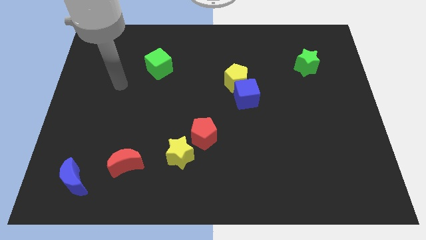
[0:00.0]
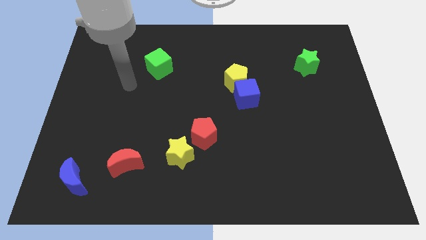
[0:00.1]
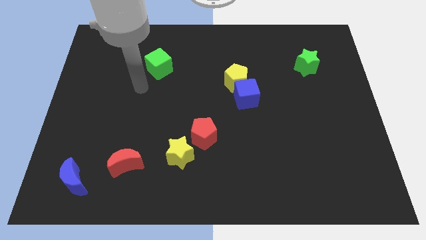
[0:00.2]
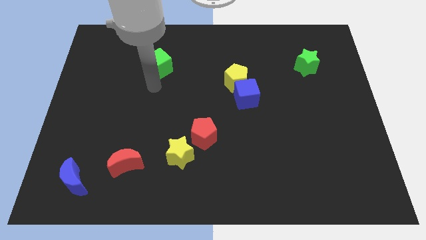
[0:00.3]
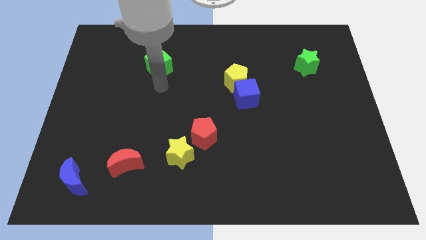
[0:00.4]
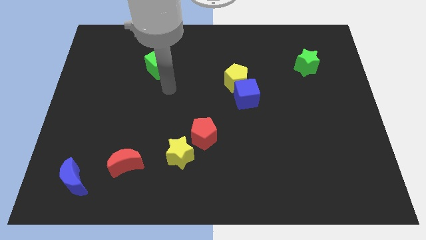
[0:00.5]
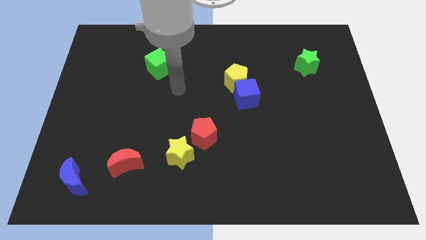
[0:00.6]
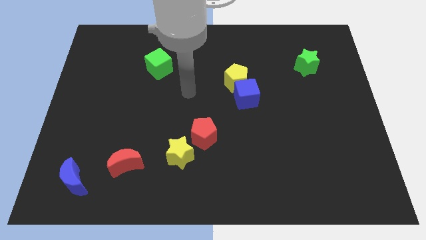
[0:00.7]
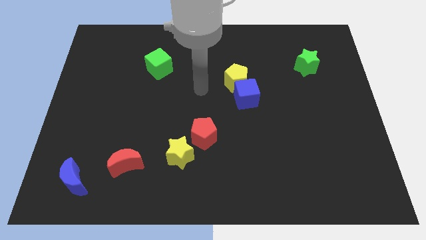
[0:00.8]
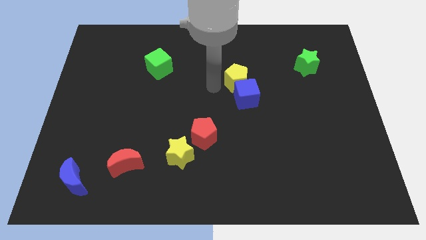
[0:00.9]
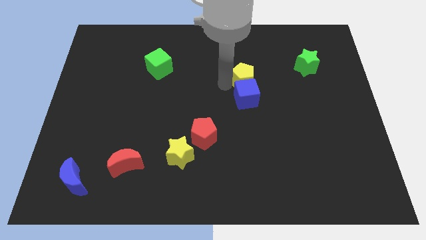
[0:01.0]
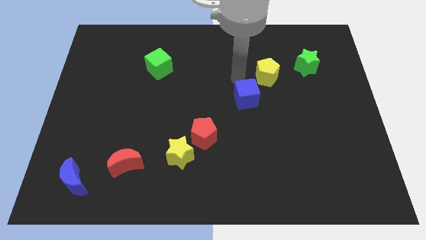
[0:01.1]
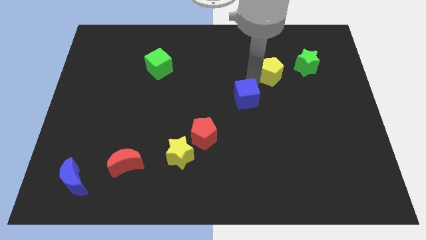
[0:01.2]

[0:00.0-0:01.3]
separate the blue cube from the yellow pentagon

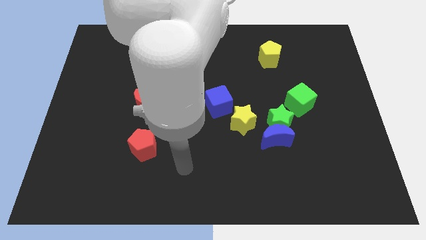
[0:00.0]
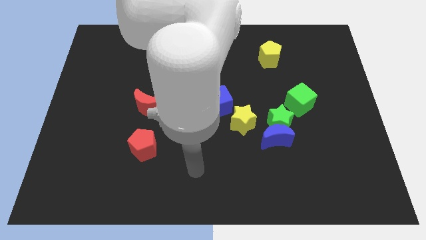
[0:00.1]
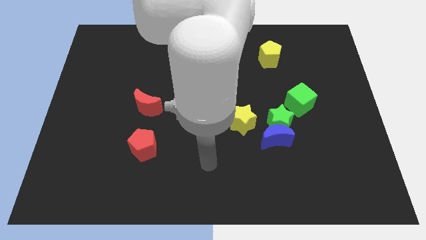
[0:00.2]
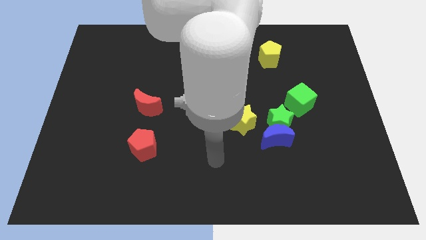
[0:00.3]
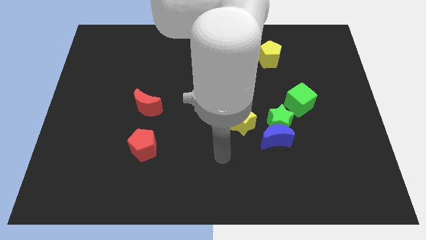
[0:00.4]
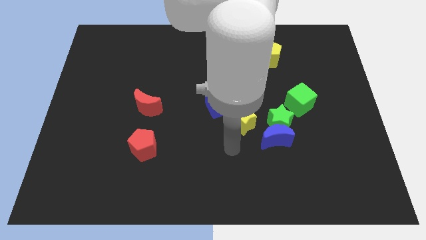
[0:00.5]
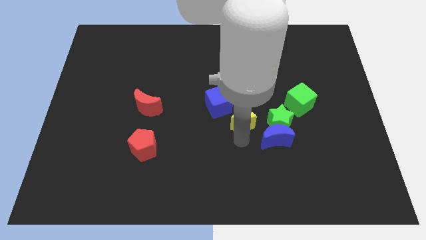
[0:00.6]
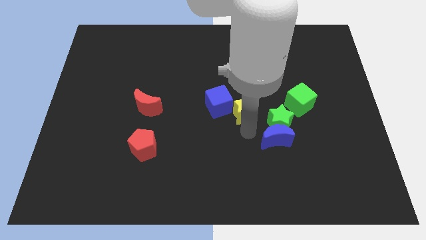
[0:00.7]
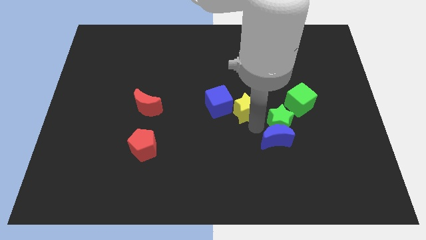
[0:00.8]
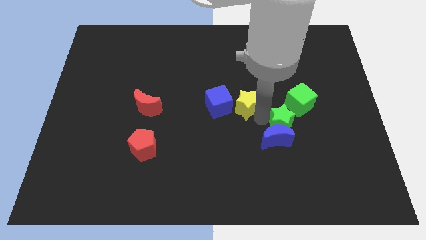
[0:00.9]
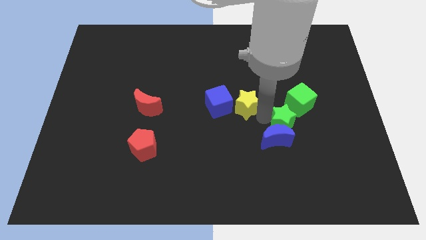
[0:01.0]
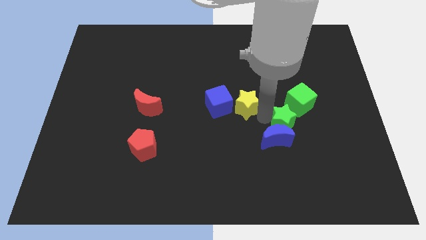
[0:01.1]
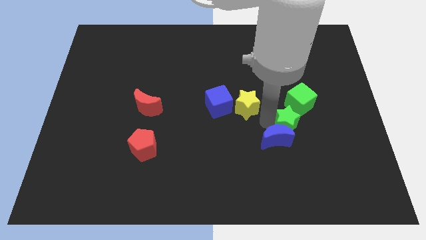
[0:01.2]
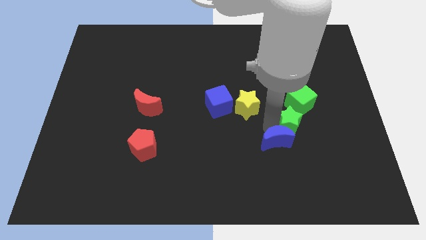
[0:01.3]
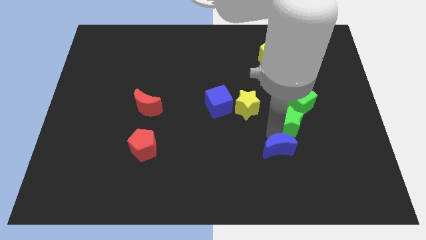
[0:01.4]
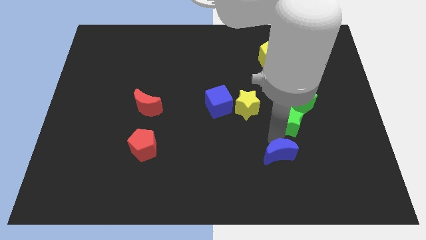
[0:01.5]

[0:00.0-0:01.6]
pull the blue moon apart from the green star and yellow star

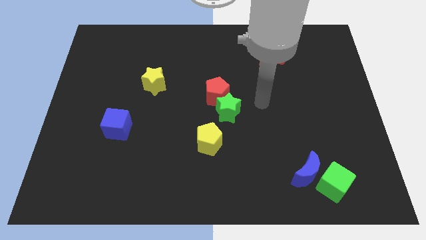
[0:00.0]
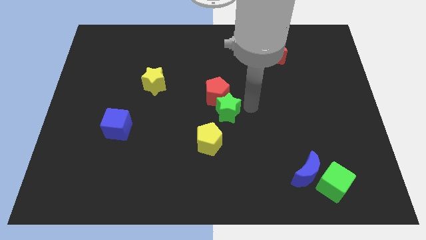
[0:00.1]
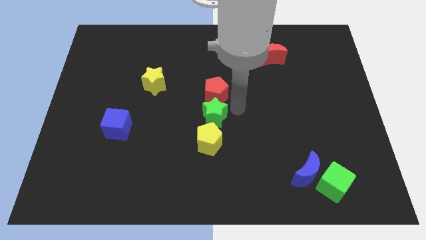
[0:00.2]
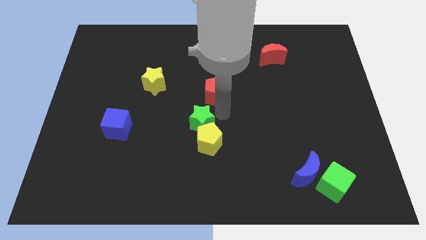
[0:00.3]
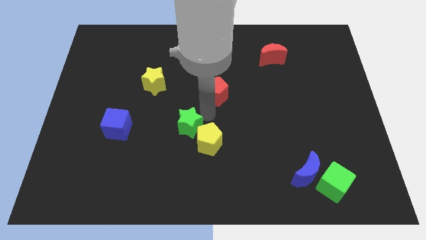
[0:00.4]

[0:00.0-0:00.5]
separate the red pentagon from the green star

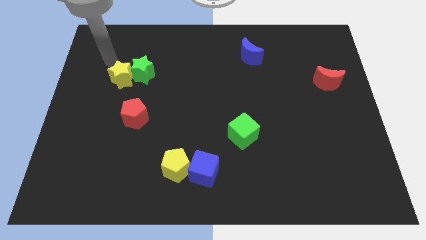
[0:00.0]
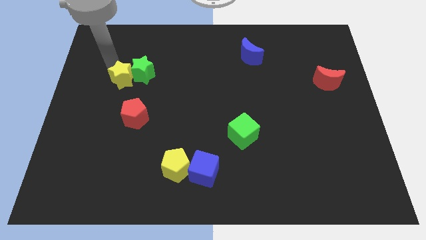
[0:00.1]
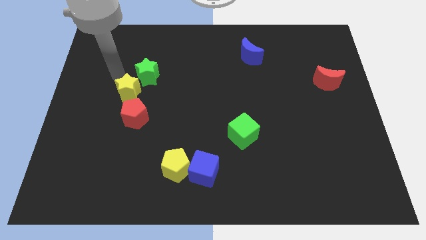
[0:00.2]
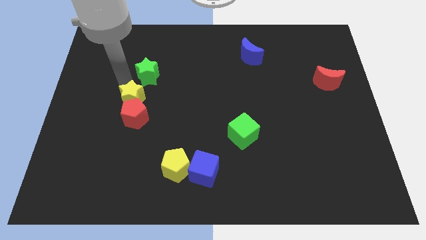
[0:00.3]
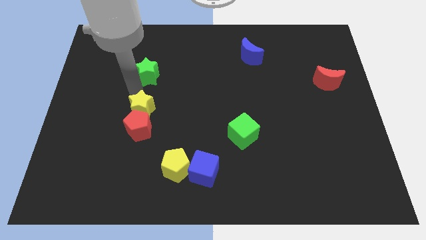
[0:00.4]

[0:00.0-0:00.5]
pull the green star apart from the yellow star

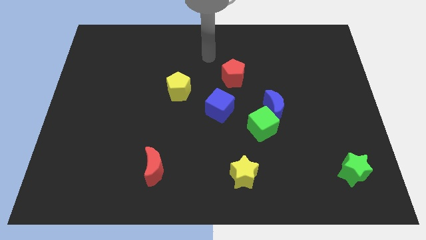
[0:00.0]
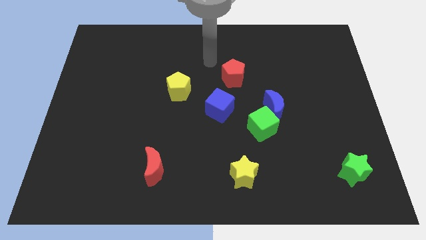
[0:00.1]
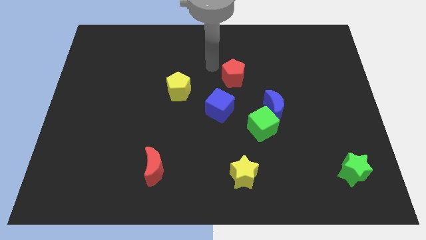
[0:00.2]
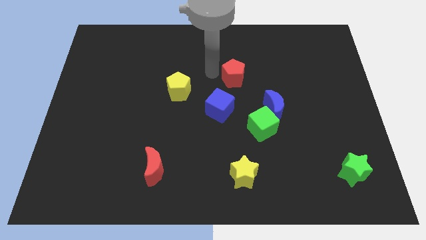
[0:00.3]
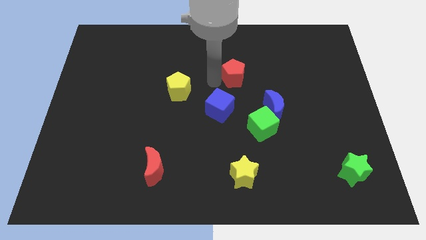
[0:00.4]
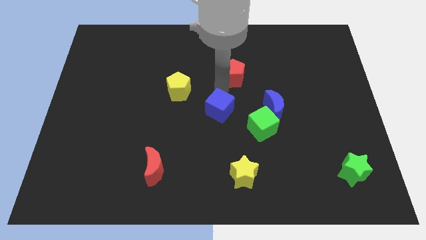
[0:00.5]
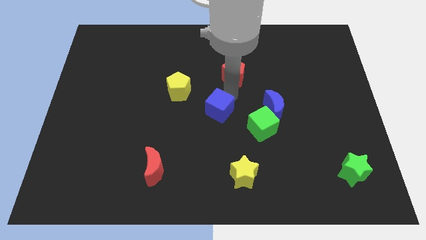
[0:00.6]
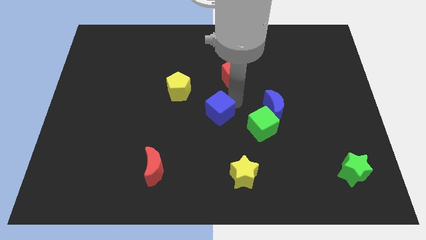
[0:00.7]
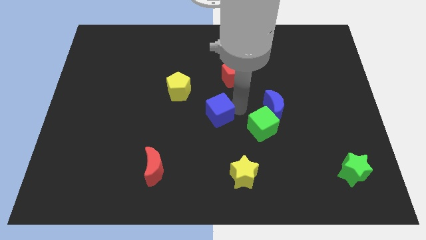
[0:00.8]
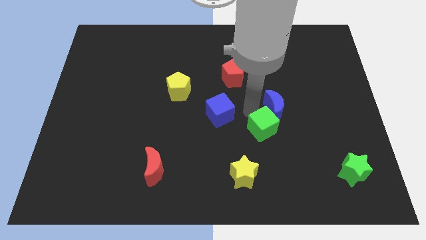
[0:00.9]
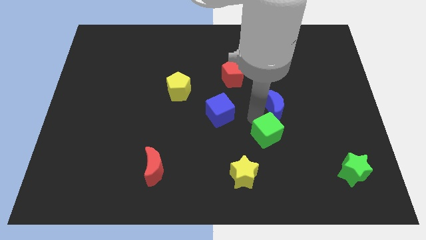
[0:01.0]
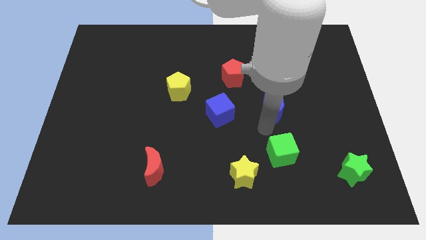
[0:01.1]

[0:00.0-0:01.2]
move the blue moon away from the green cube

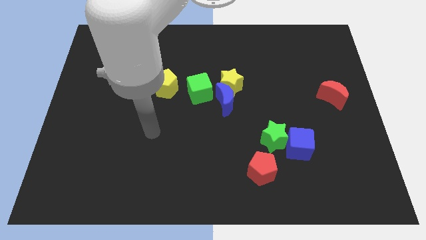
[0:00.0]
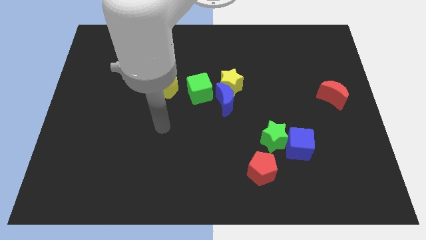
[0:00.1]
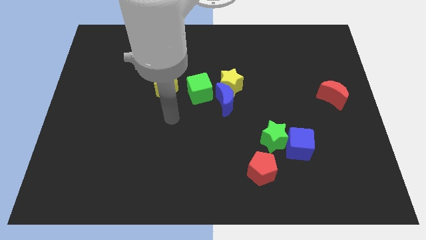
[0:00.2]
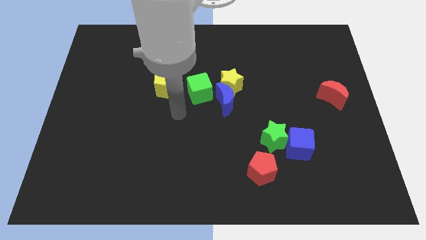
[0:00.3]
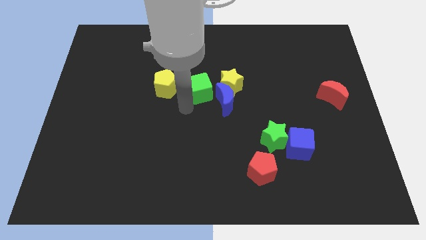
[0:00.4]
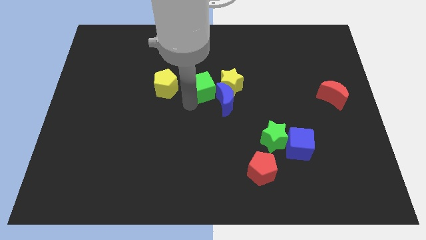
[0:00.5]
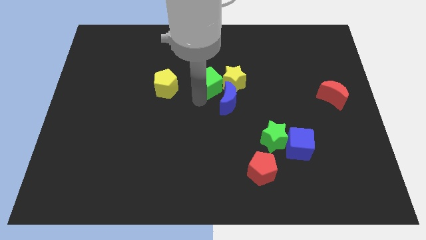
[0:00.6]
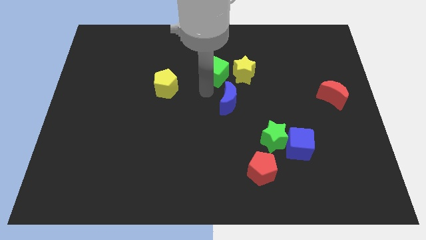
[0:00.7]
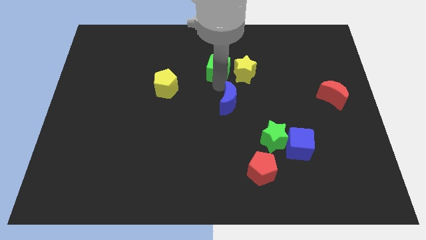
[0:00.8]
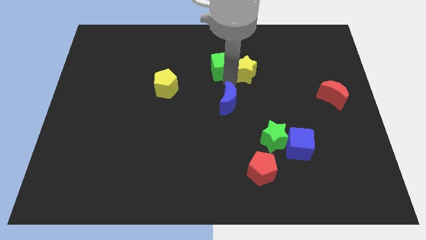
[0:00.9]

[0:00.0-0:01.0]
pull the blue moon apart from the yellow star and green cube

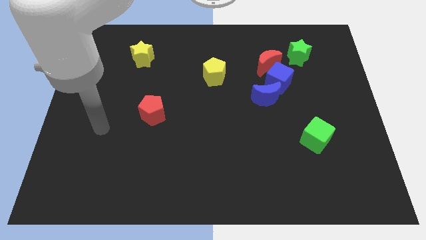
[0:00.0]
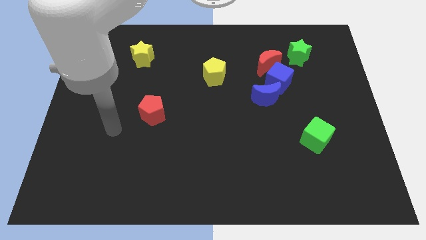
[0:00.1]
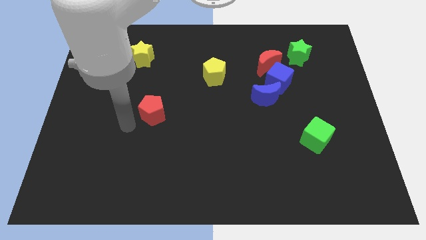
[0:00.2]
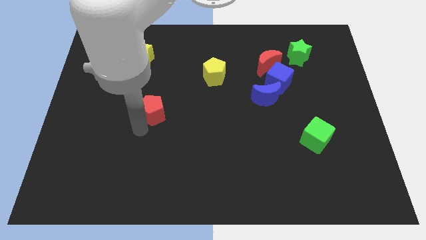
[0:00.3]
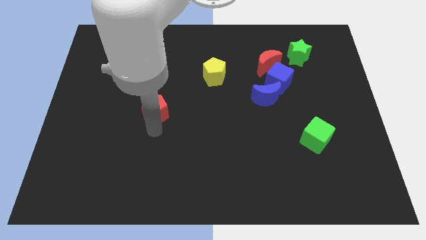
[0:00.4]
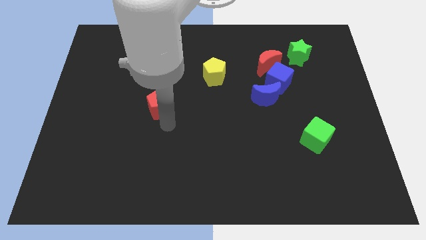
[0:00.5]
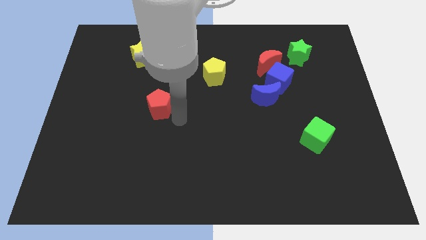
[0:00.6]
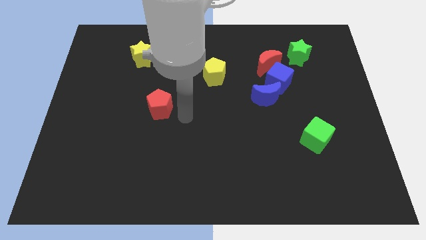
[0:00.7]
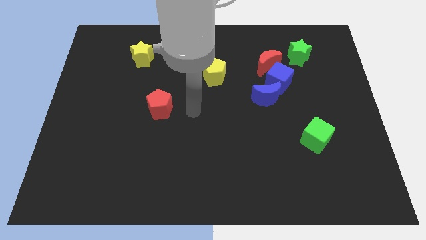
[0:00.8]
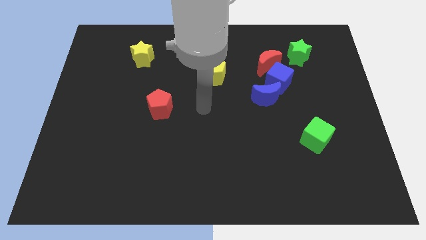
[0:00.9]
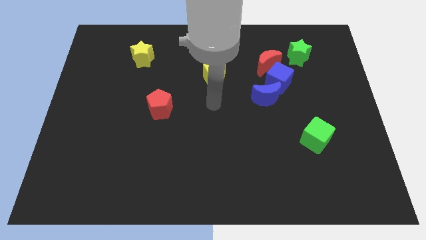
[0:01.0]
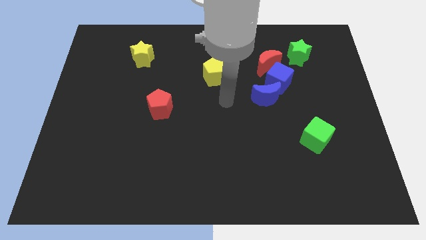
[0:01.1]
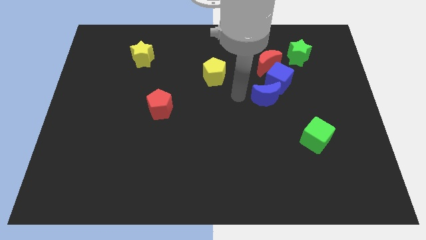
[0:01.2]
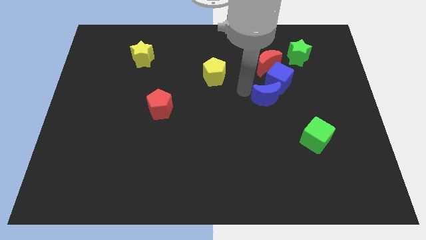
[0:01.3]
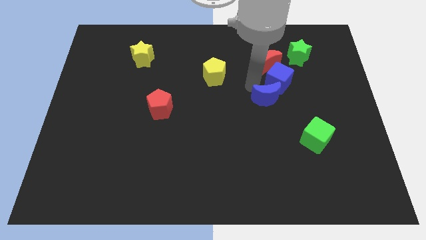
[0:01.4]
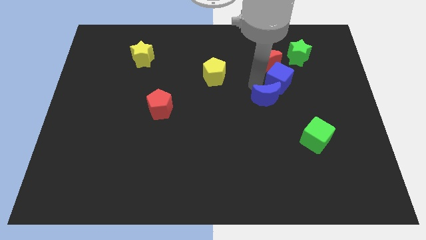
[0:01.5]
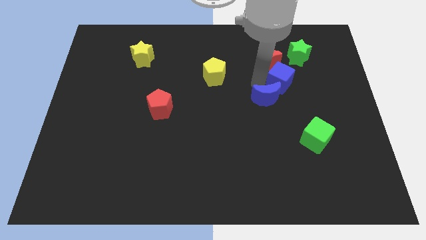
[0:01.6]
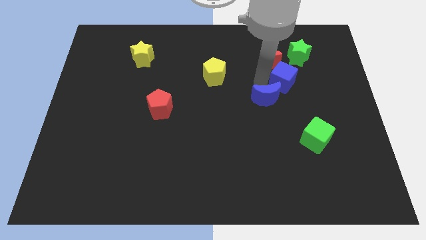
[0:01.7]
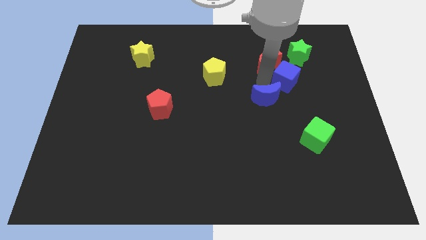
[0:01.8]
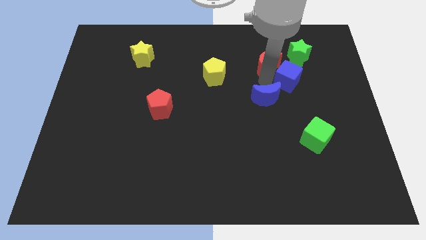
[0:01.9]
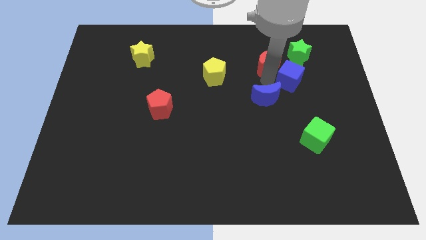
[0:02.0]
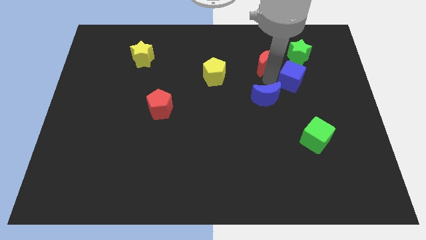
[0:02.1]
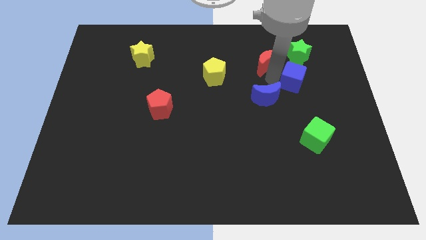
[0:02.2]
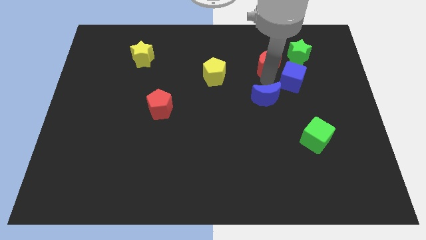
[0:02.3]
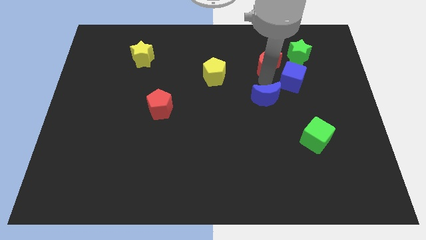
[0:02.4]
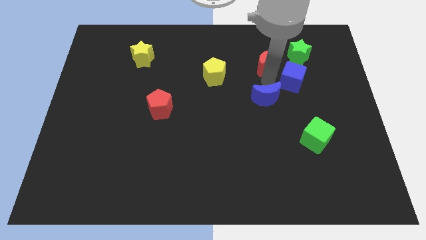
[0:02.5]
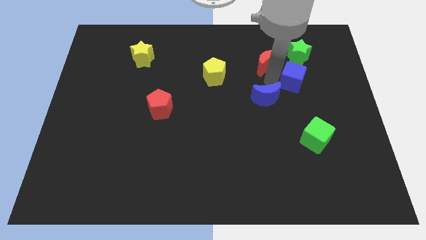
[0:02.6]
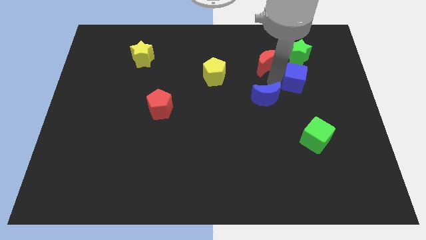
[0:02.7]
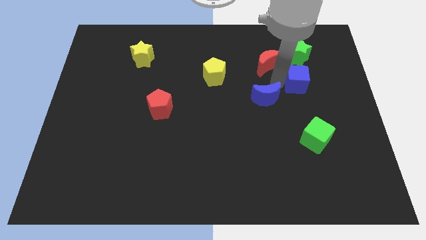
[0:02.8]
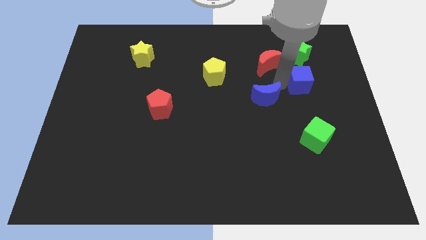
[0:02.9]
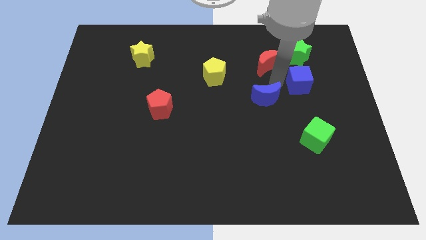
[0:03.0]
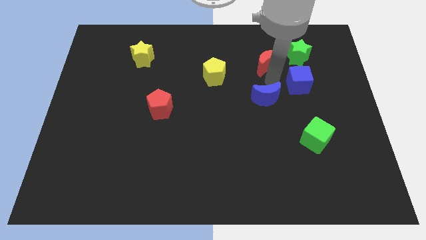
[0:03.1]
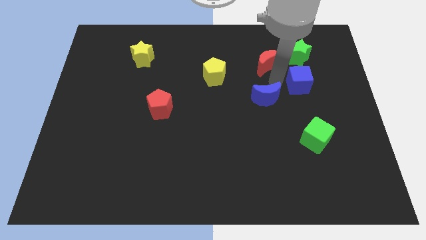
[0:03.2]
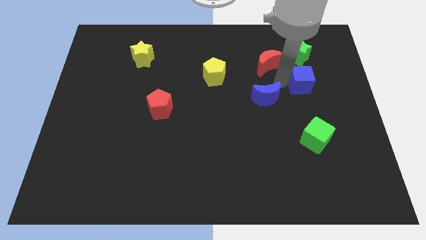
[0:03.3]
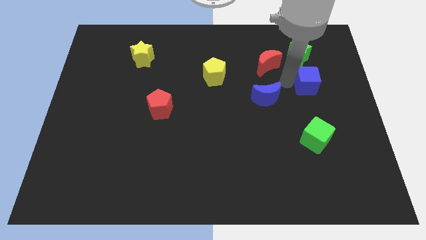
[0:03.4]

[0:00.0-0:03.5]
separate the blue cube from the red moon and blue moon
